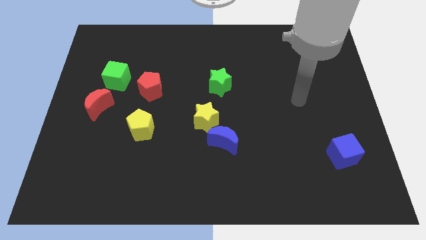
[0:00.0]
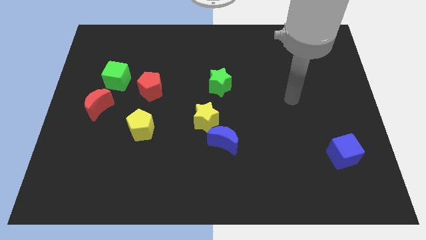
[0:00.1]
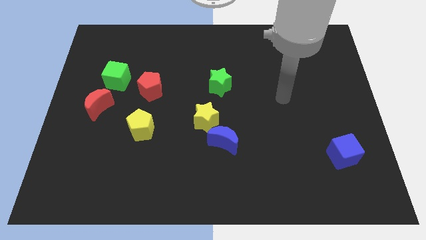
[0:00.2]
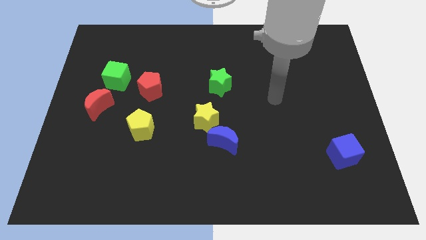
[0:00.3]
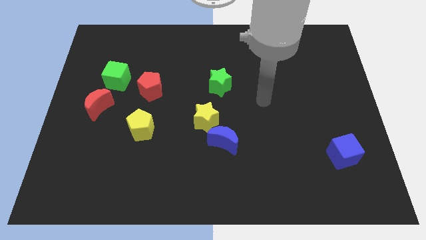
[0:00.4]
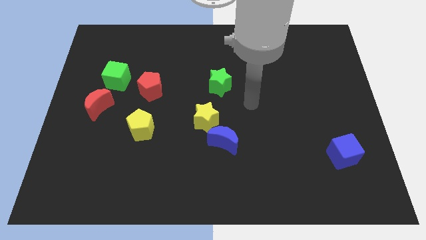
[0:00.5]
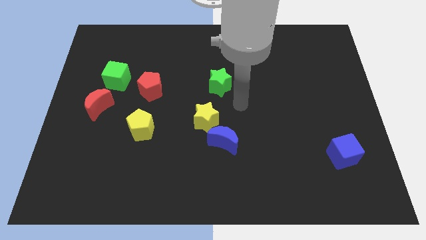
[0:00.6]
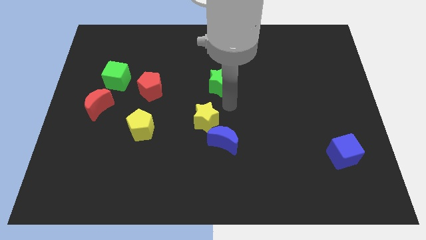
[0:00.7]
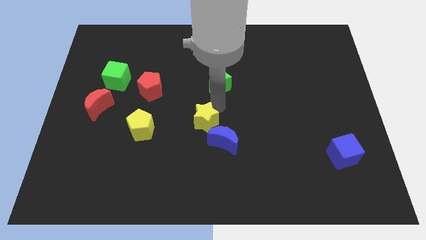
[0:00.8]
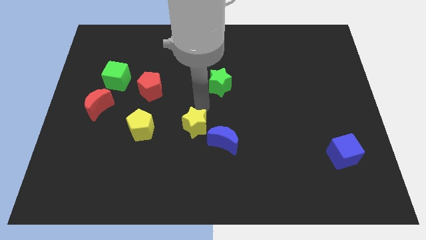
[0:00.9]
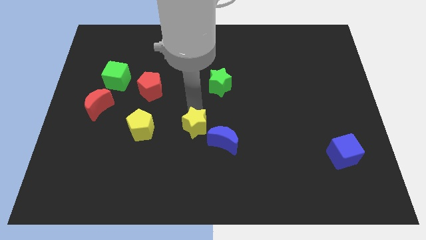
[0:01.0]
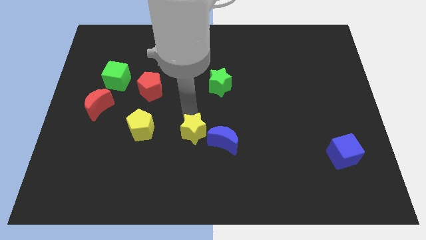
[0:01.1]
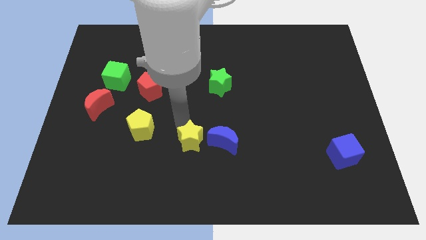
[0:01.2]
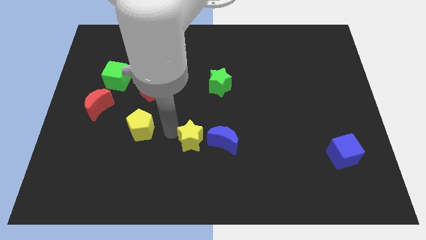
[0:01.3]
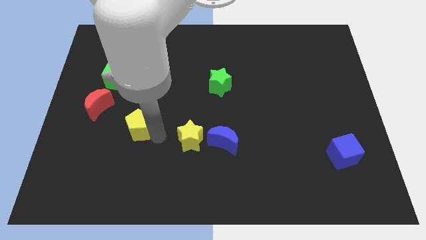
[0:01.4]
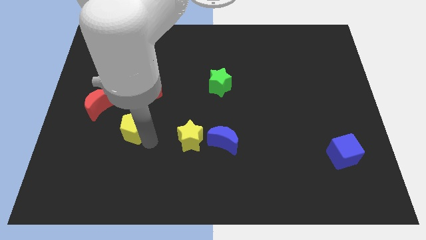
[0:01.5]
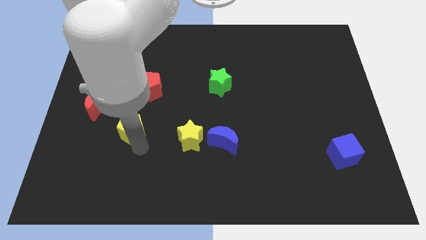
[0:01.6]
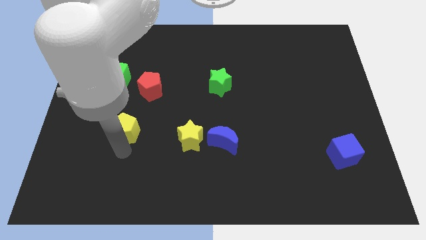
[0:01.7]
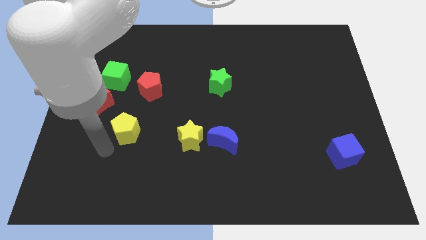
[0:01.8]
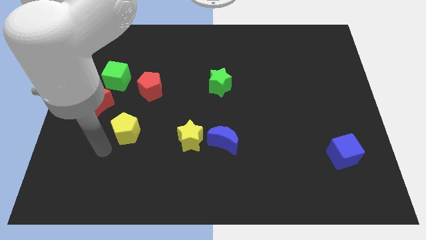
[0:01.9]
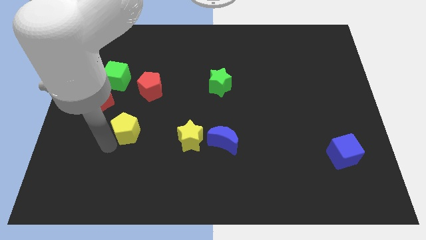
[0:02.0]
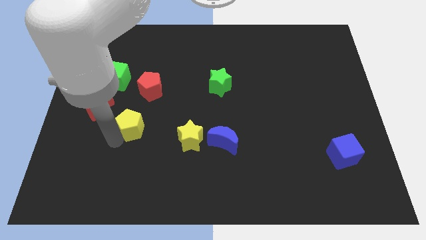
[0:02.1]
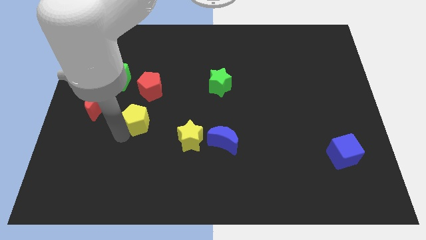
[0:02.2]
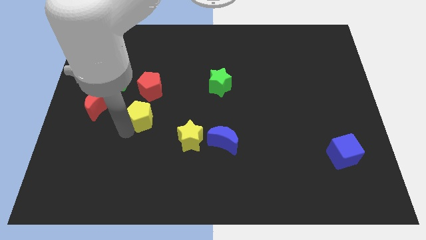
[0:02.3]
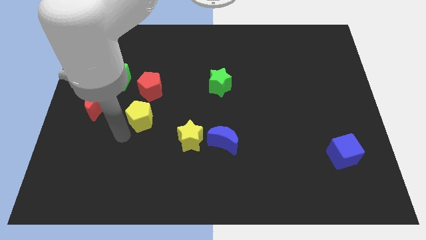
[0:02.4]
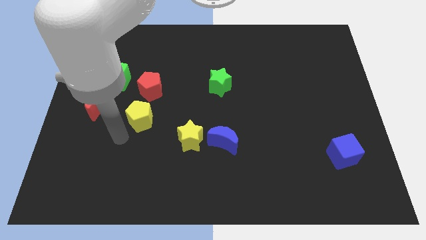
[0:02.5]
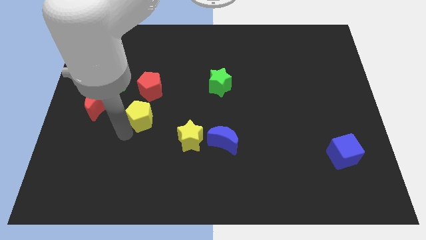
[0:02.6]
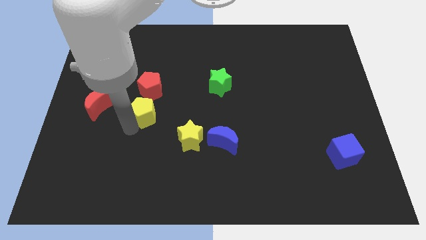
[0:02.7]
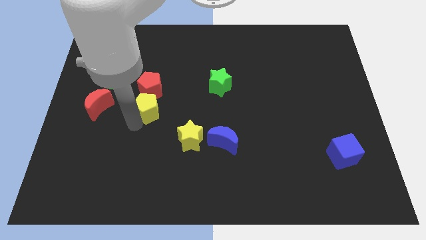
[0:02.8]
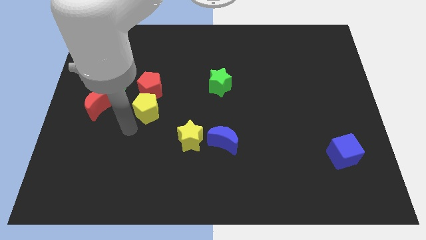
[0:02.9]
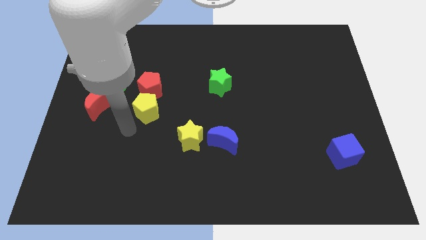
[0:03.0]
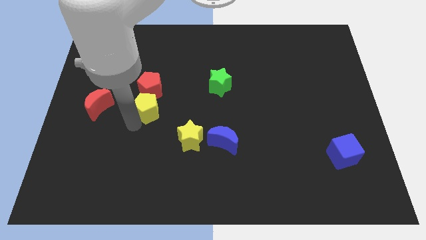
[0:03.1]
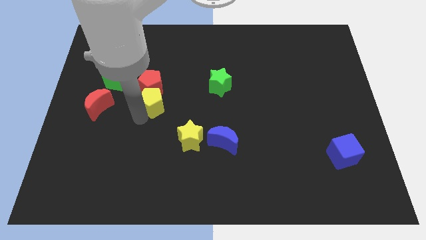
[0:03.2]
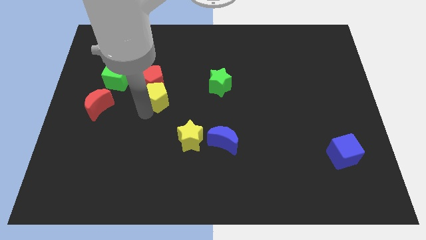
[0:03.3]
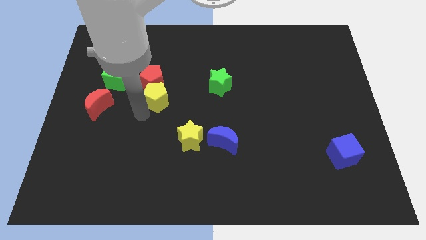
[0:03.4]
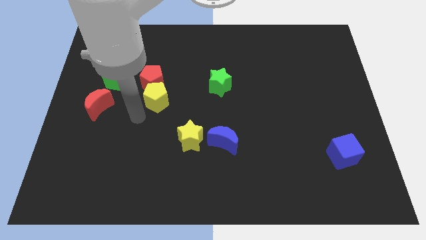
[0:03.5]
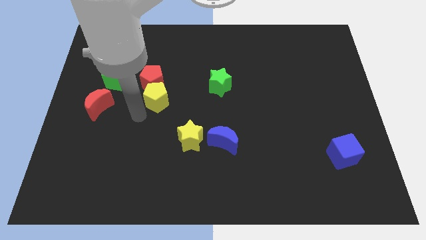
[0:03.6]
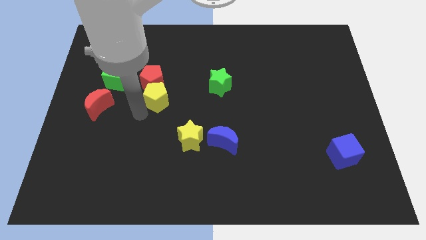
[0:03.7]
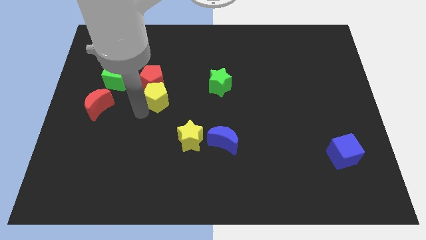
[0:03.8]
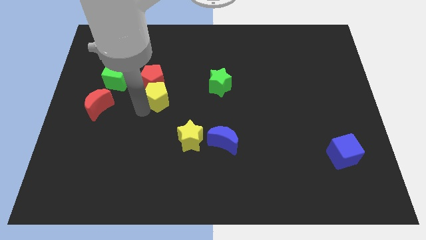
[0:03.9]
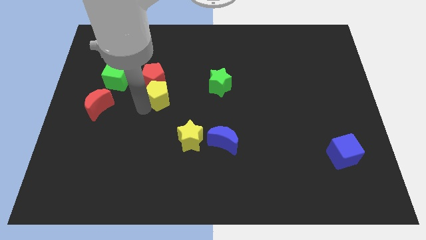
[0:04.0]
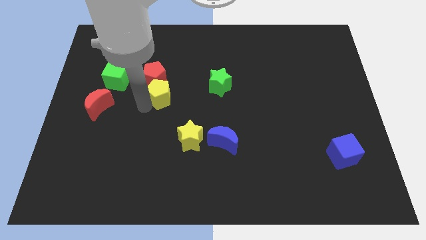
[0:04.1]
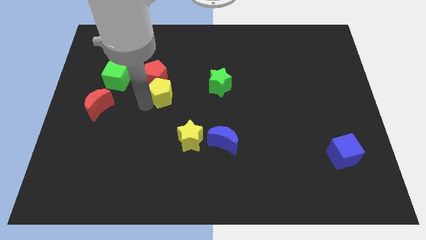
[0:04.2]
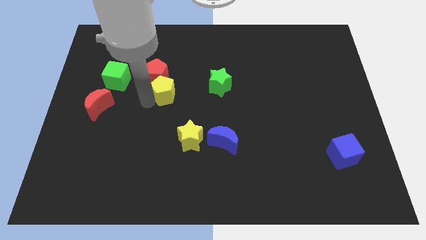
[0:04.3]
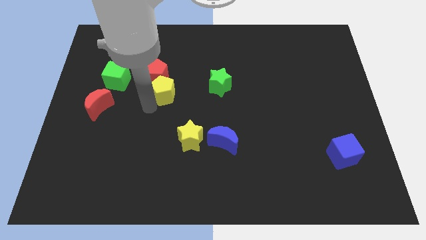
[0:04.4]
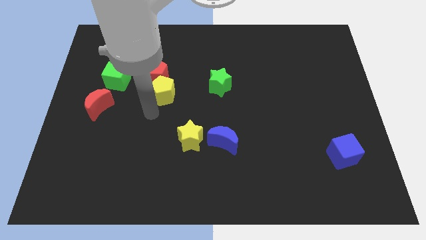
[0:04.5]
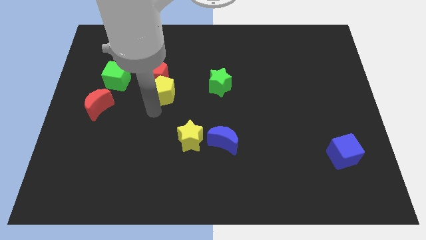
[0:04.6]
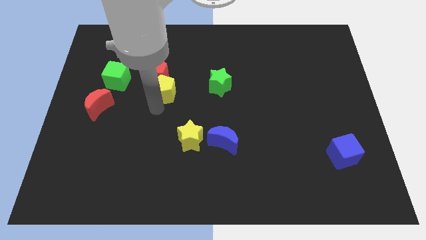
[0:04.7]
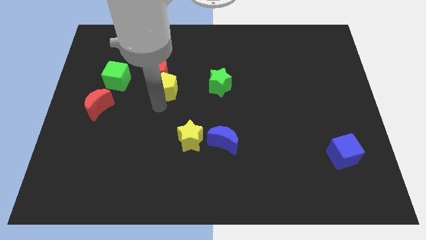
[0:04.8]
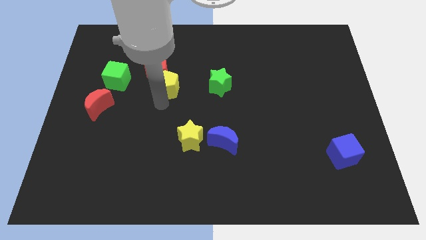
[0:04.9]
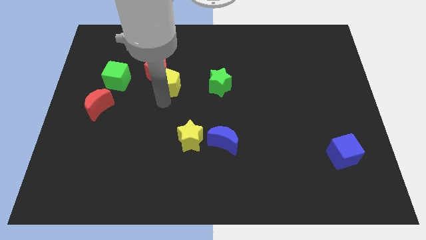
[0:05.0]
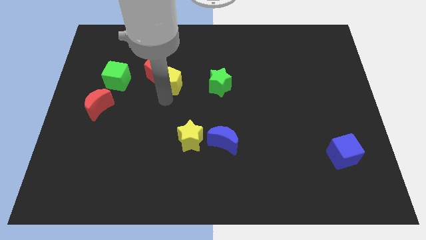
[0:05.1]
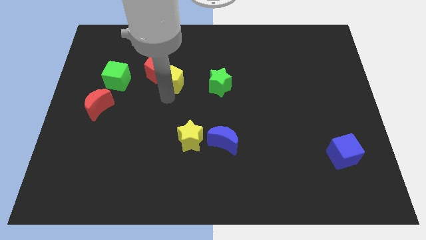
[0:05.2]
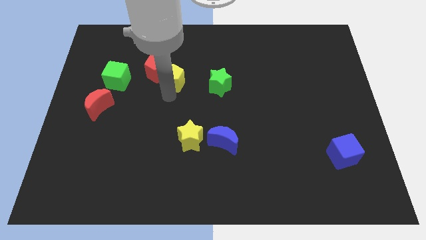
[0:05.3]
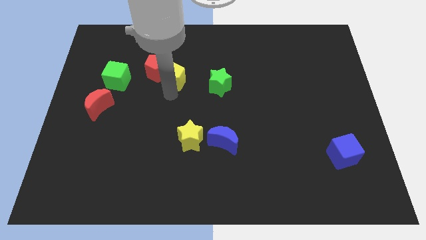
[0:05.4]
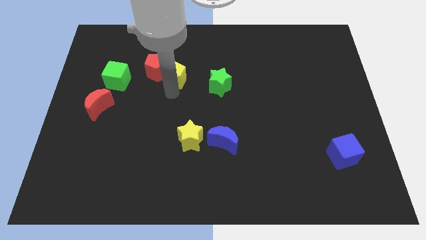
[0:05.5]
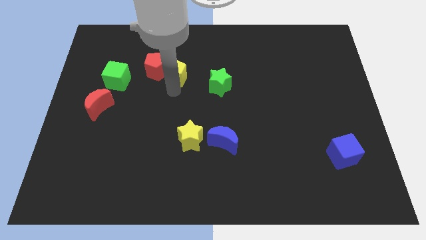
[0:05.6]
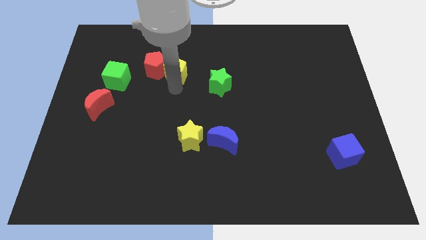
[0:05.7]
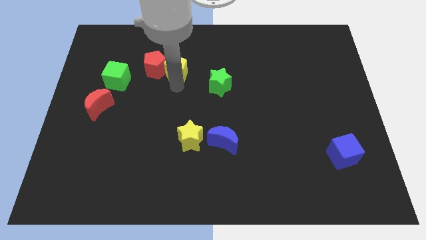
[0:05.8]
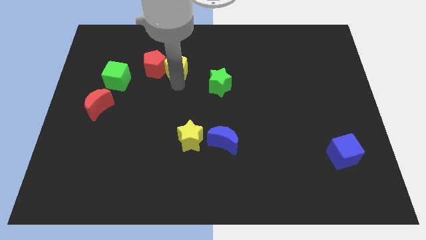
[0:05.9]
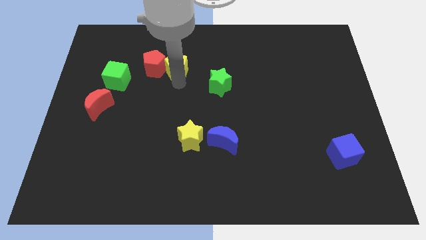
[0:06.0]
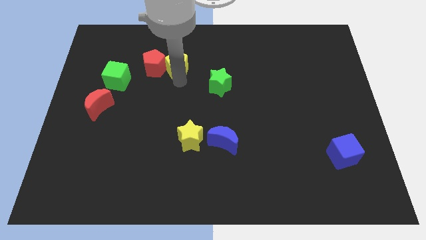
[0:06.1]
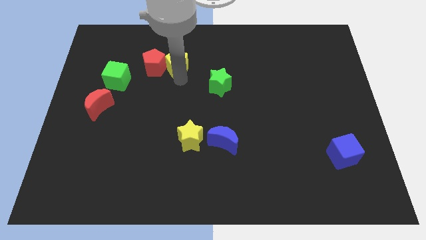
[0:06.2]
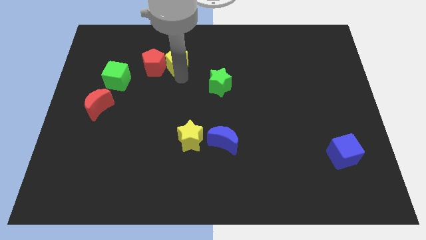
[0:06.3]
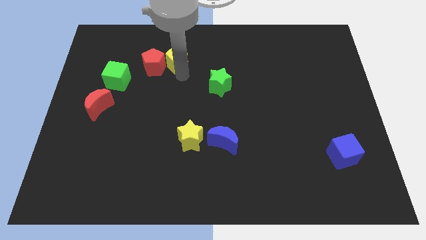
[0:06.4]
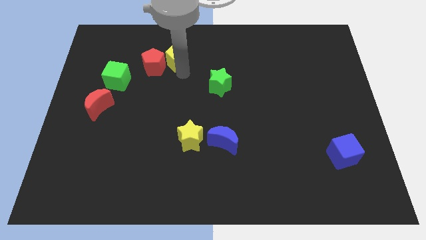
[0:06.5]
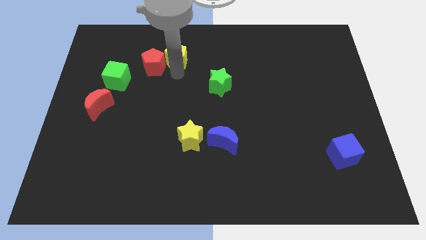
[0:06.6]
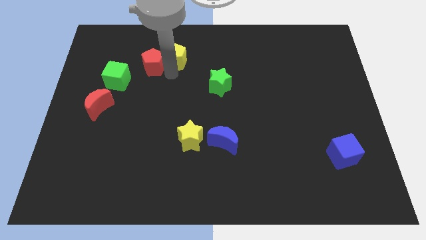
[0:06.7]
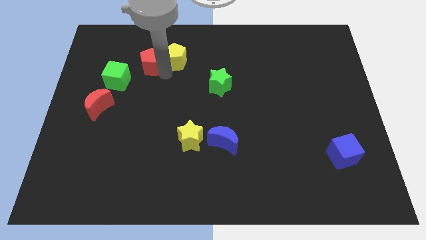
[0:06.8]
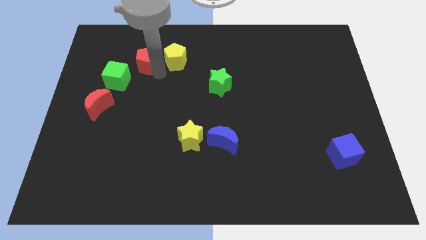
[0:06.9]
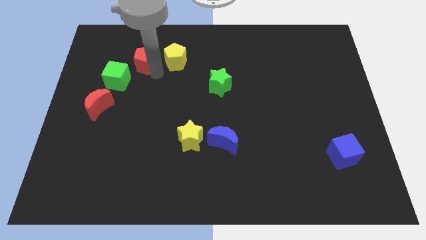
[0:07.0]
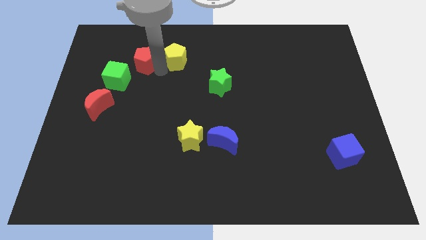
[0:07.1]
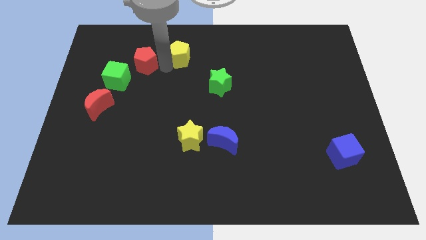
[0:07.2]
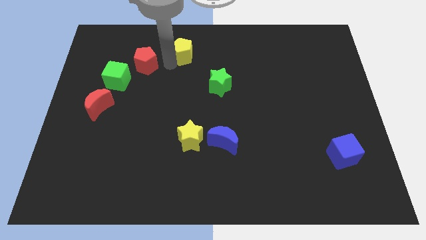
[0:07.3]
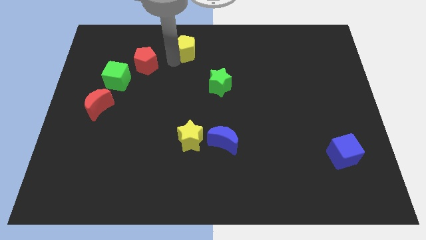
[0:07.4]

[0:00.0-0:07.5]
move the yellow pentagon to the top side
